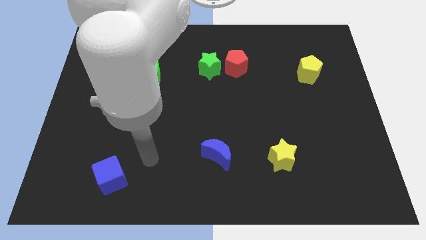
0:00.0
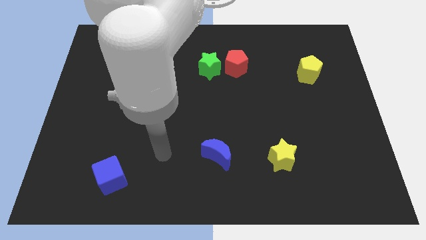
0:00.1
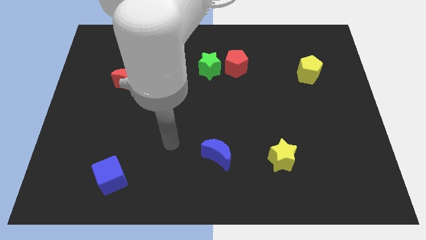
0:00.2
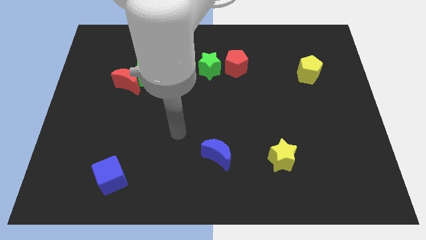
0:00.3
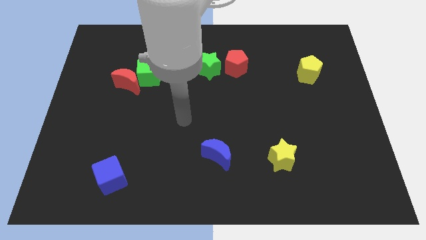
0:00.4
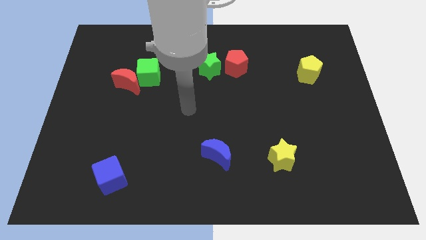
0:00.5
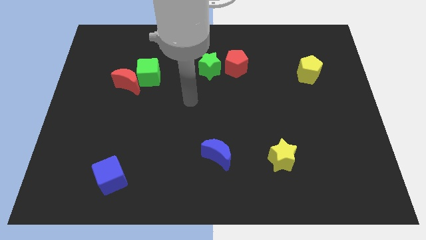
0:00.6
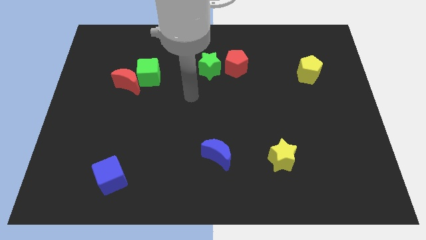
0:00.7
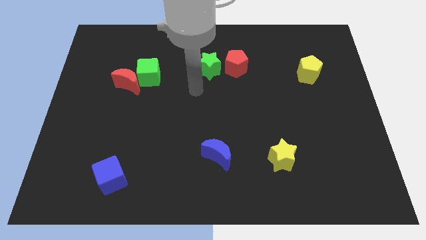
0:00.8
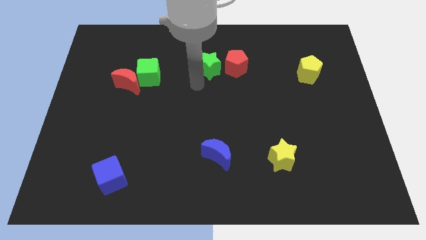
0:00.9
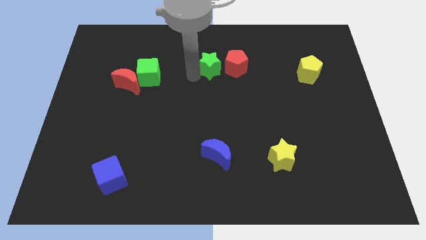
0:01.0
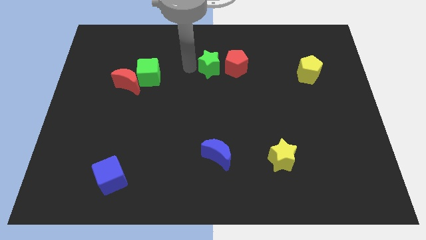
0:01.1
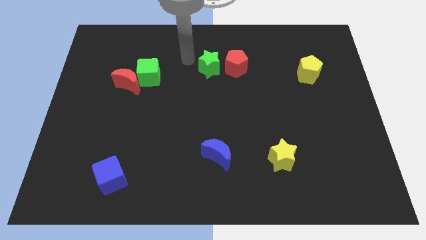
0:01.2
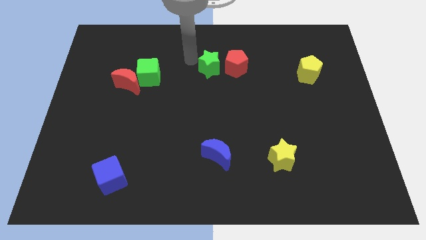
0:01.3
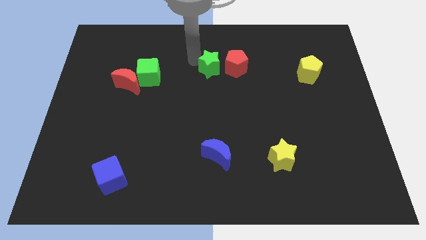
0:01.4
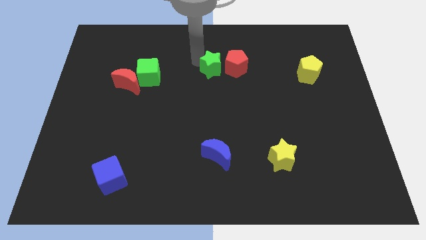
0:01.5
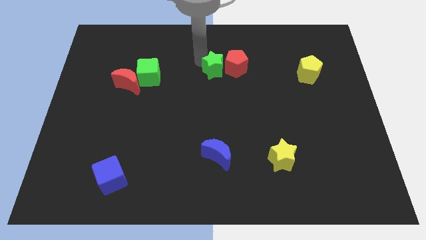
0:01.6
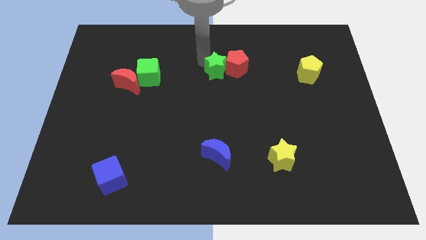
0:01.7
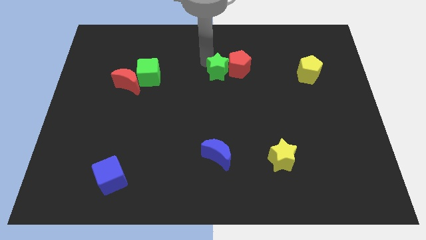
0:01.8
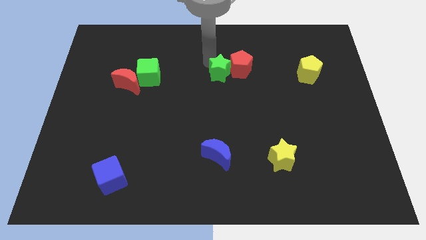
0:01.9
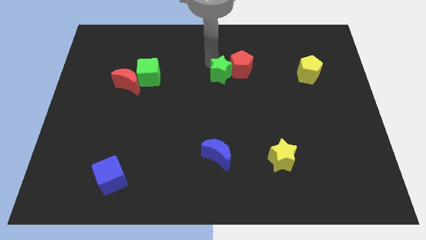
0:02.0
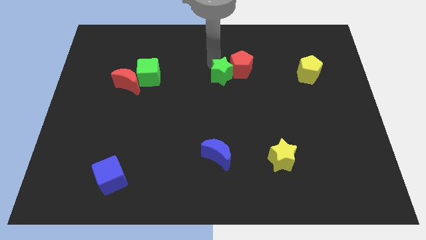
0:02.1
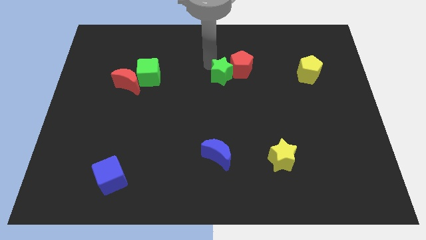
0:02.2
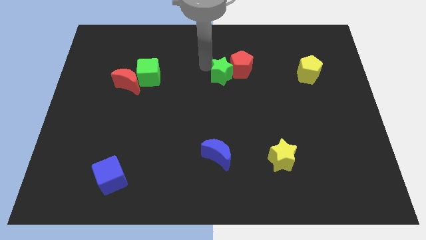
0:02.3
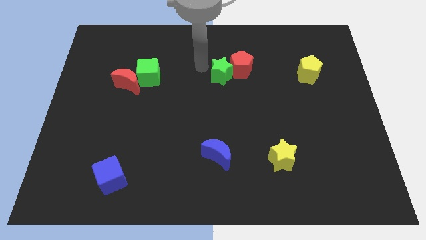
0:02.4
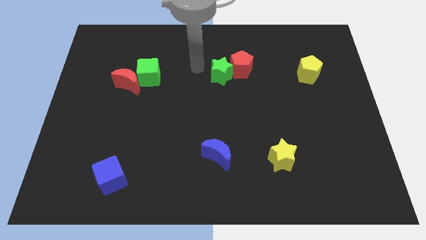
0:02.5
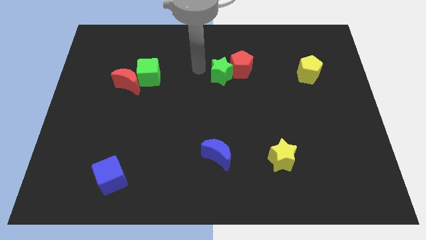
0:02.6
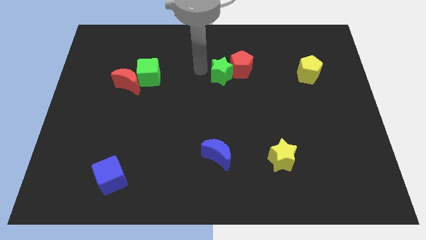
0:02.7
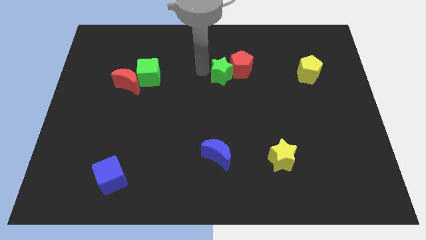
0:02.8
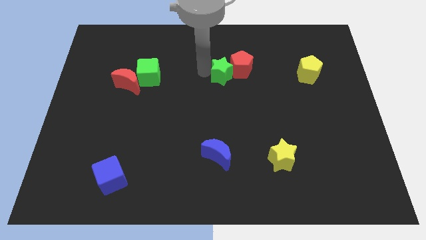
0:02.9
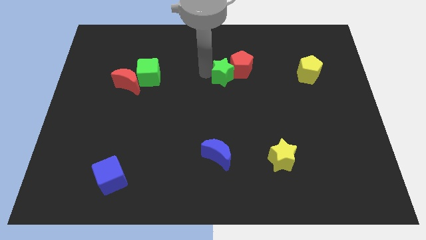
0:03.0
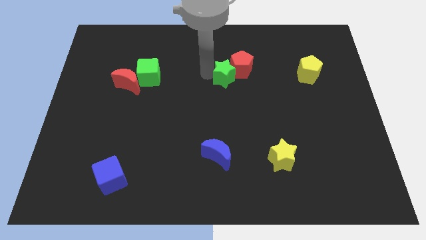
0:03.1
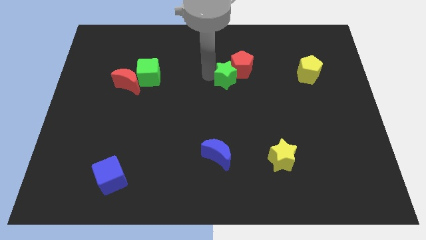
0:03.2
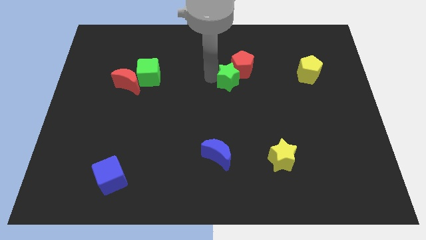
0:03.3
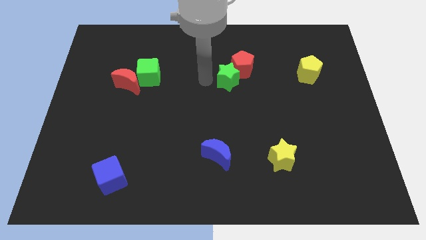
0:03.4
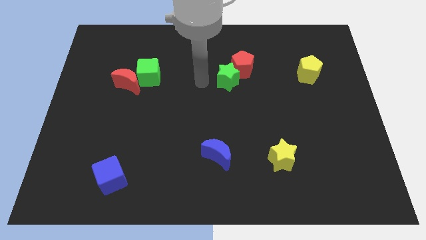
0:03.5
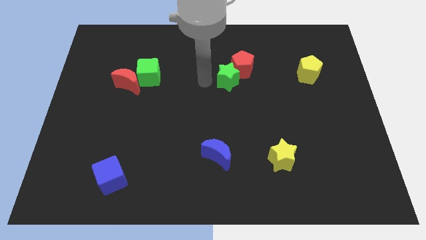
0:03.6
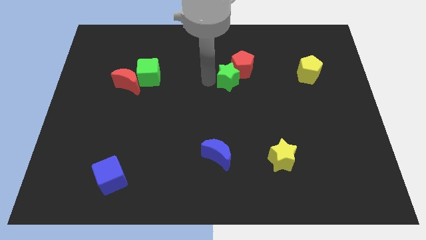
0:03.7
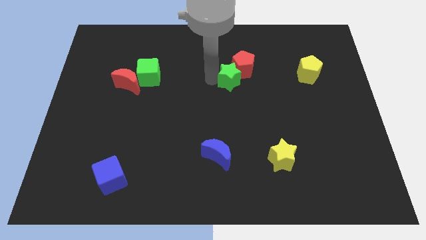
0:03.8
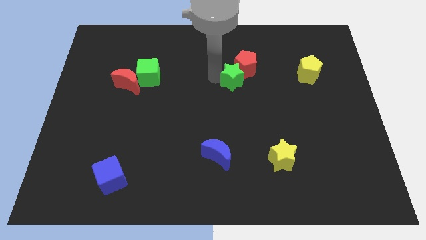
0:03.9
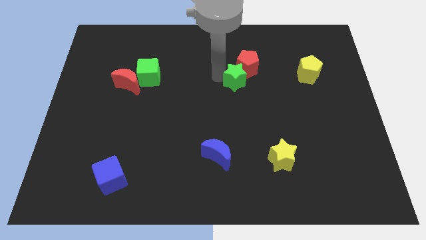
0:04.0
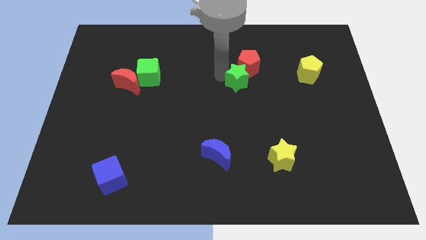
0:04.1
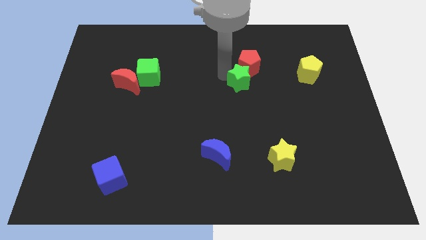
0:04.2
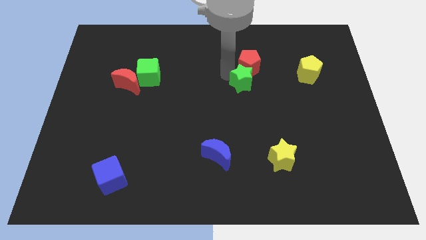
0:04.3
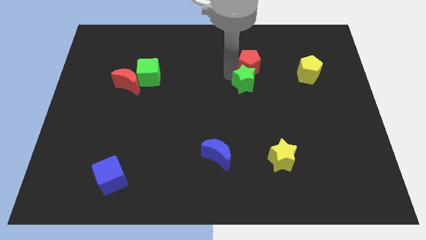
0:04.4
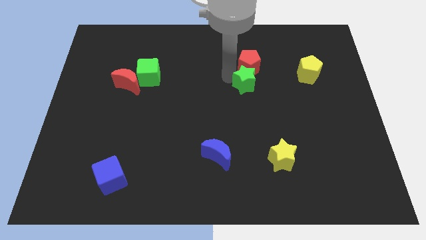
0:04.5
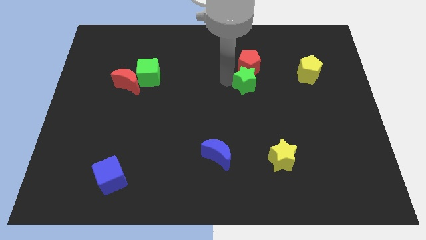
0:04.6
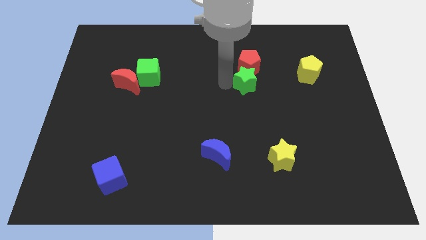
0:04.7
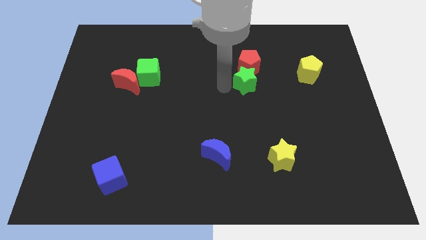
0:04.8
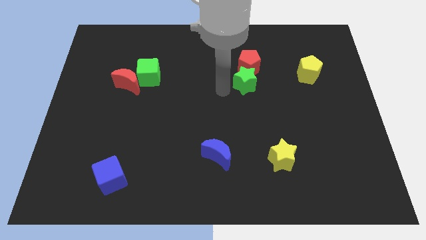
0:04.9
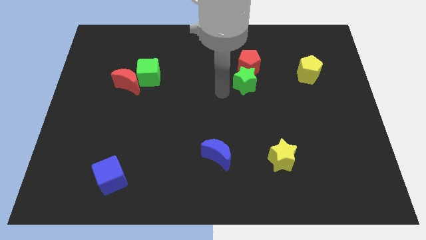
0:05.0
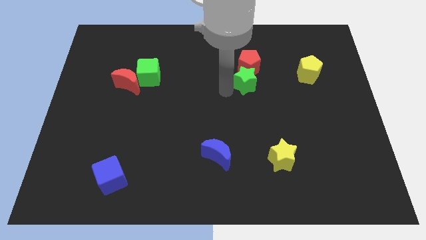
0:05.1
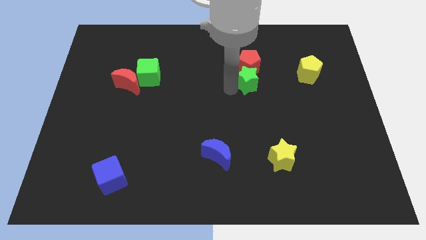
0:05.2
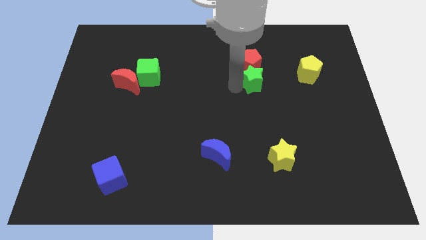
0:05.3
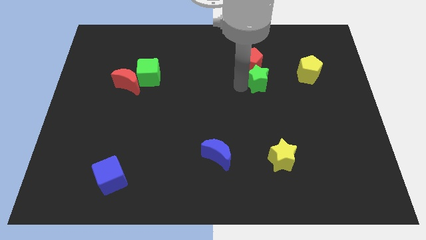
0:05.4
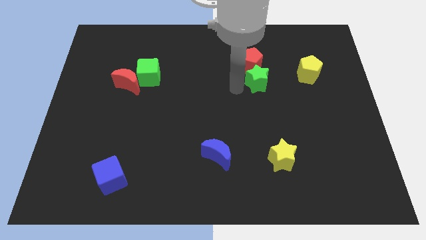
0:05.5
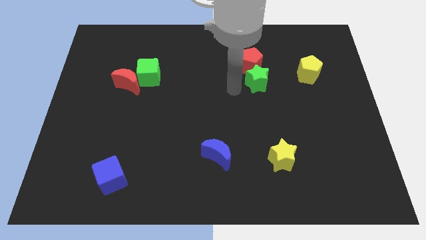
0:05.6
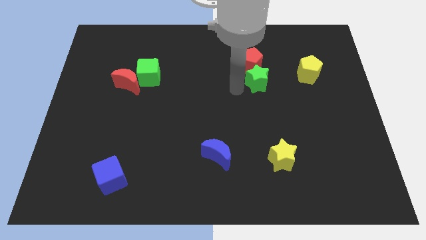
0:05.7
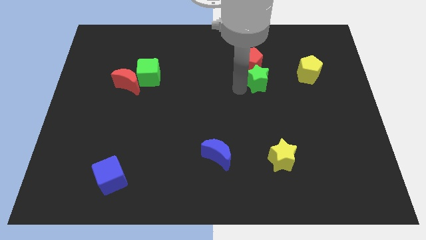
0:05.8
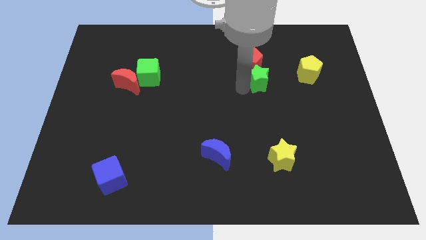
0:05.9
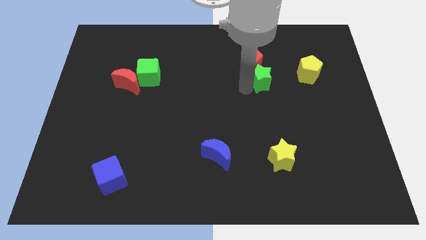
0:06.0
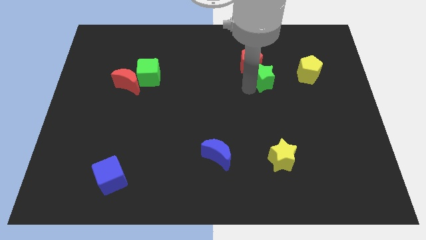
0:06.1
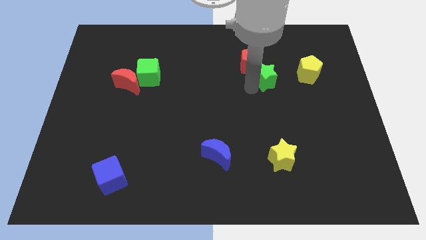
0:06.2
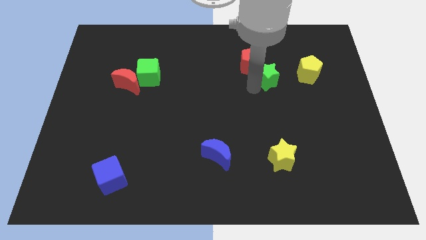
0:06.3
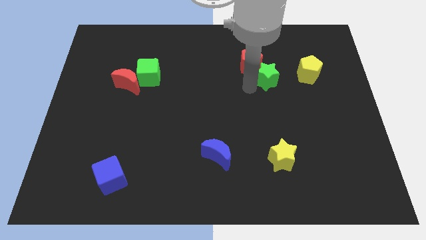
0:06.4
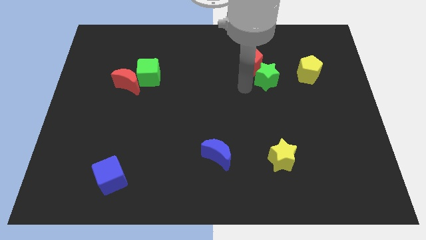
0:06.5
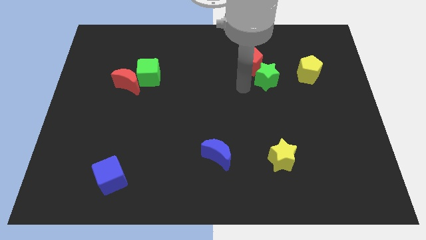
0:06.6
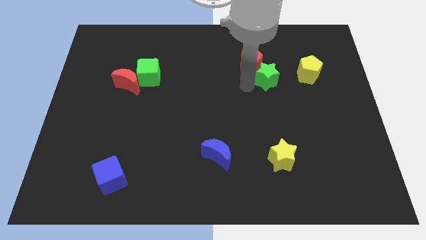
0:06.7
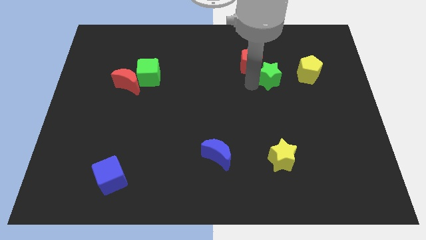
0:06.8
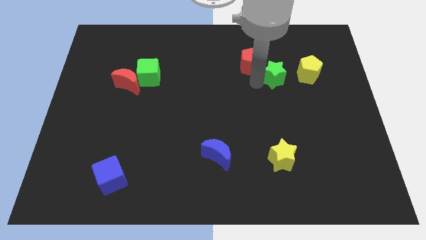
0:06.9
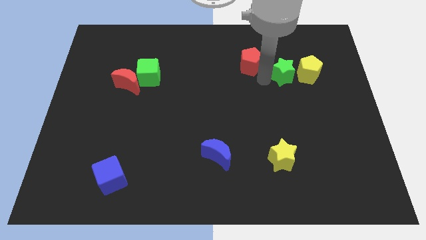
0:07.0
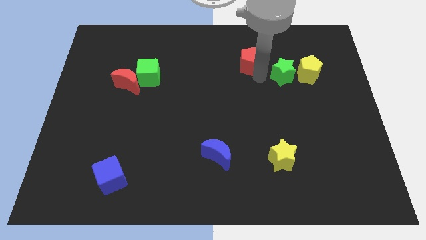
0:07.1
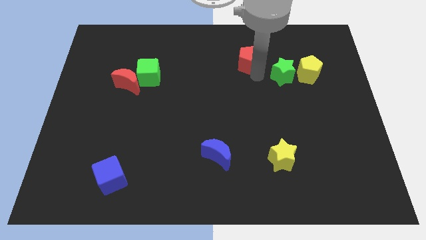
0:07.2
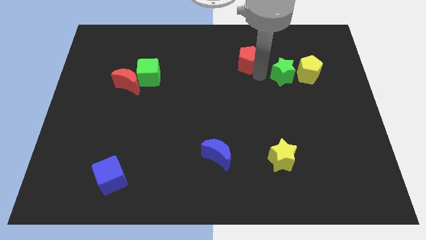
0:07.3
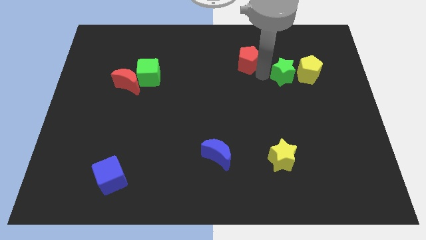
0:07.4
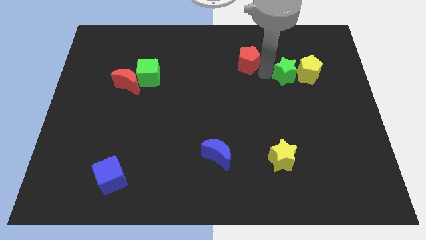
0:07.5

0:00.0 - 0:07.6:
put the green star next to the yellow pentagon
